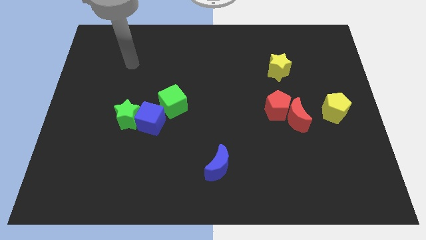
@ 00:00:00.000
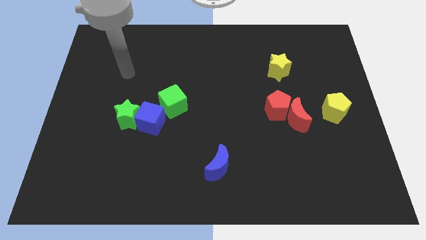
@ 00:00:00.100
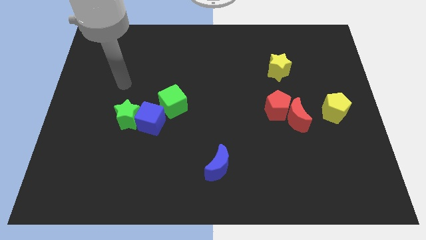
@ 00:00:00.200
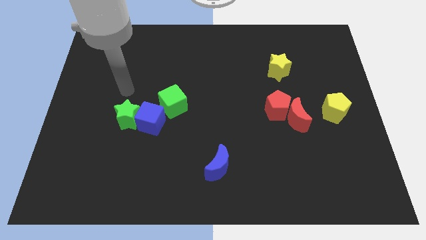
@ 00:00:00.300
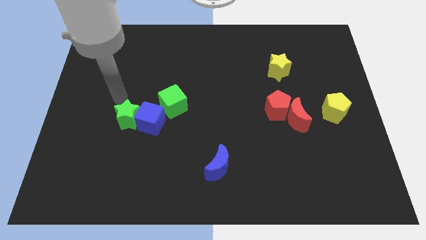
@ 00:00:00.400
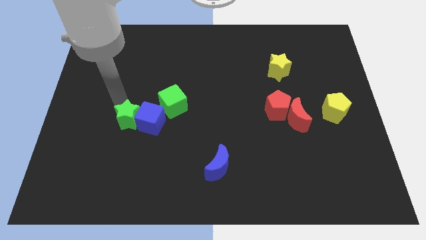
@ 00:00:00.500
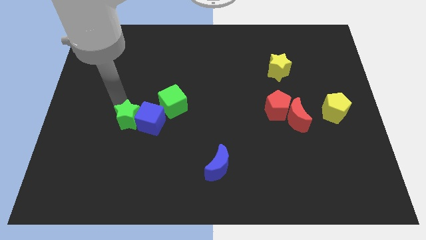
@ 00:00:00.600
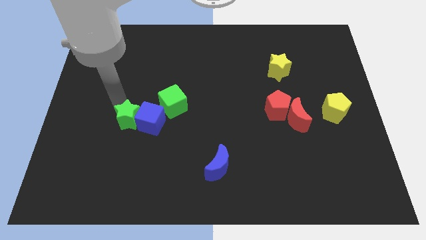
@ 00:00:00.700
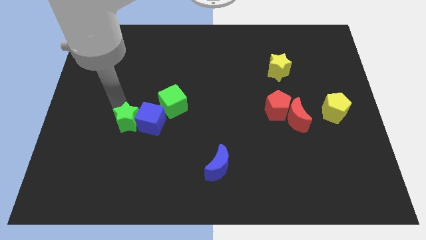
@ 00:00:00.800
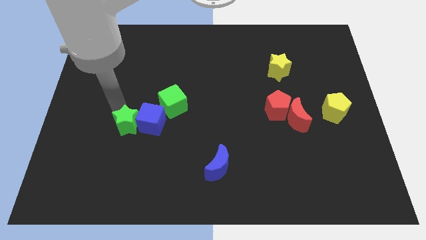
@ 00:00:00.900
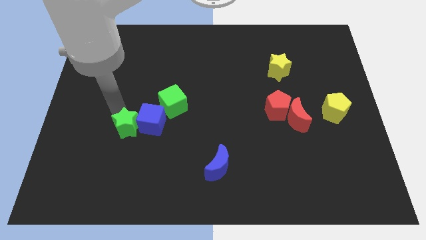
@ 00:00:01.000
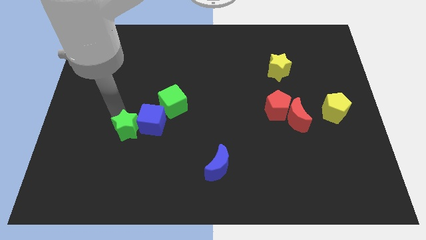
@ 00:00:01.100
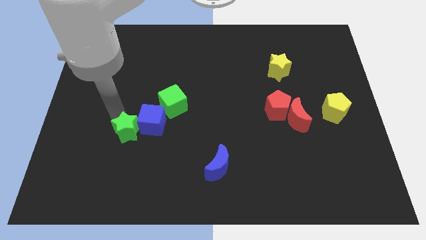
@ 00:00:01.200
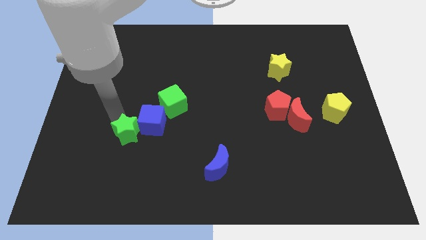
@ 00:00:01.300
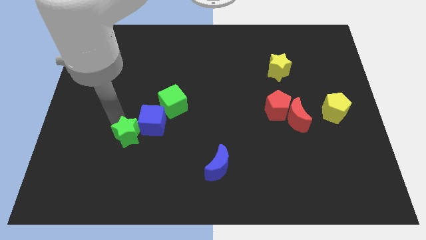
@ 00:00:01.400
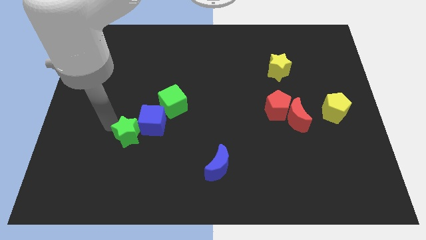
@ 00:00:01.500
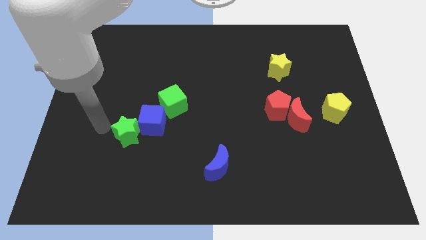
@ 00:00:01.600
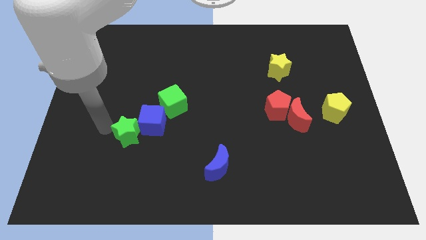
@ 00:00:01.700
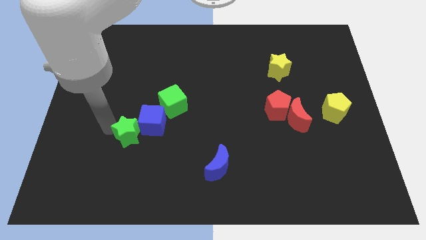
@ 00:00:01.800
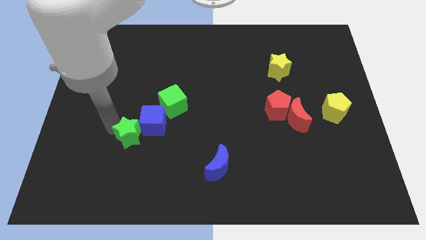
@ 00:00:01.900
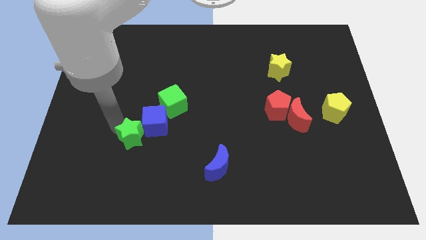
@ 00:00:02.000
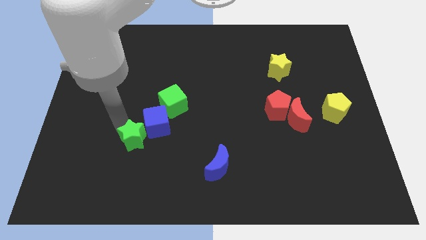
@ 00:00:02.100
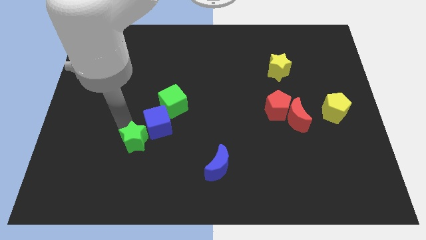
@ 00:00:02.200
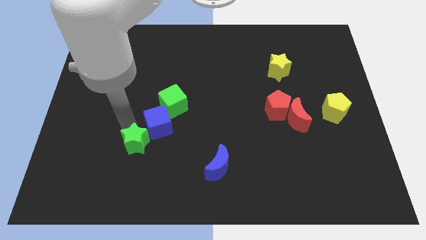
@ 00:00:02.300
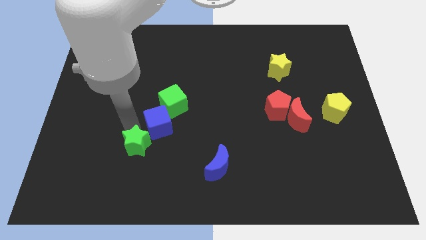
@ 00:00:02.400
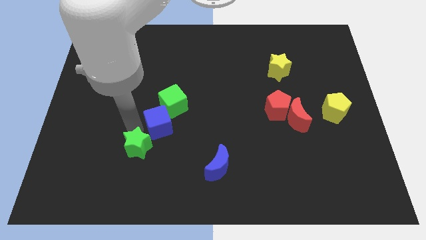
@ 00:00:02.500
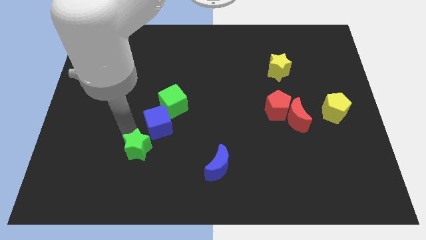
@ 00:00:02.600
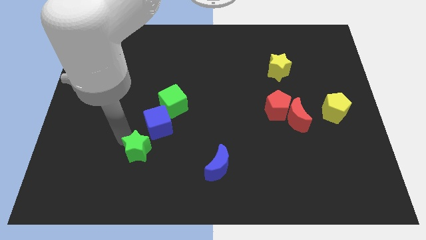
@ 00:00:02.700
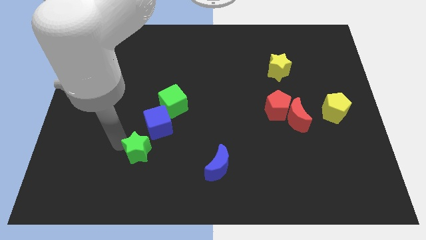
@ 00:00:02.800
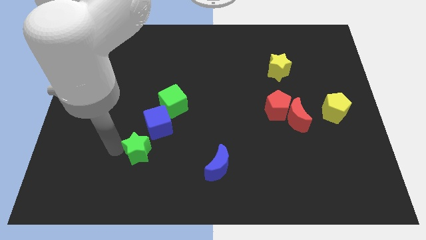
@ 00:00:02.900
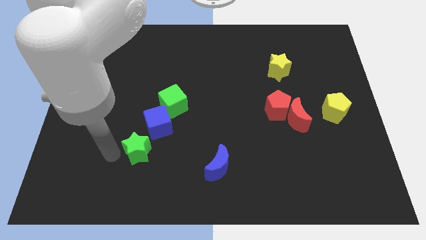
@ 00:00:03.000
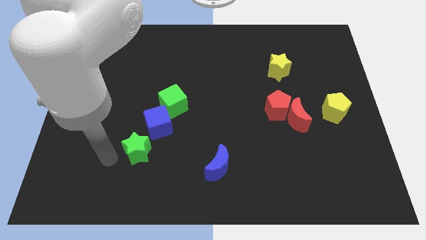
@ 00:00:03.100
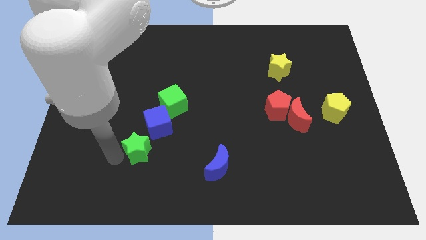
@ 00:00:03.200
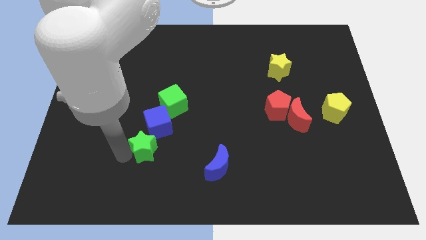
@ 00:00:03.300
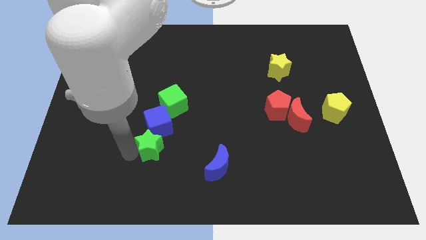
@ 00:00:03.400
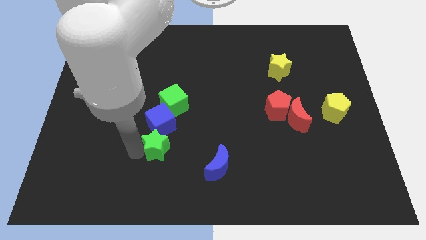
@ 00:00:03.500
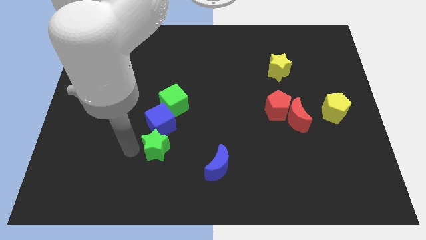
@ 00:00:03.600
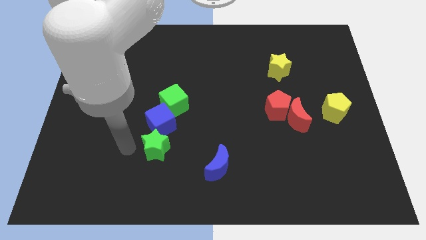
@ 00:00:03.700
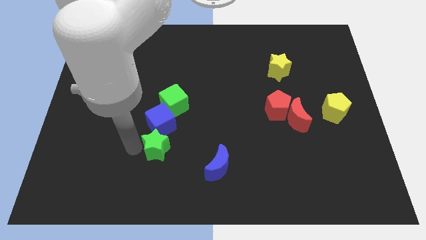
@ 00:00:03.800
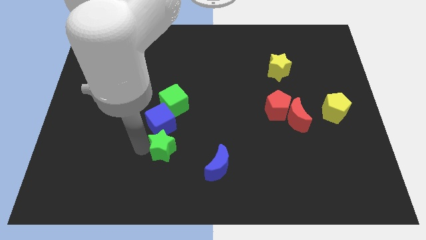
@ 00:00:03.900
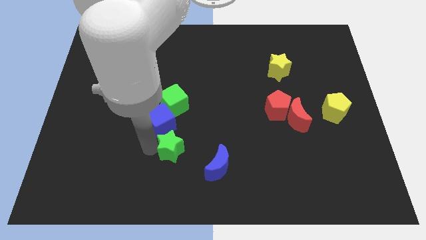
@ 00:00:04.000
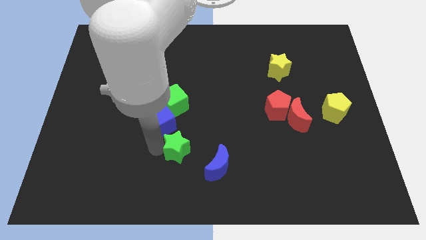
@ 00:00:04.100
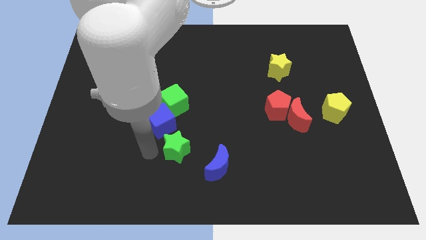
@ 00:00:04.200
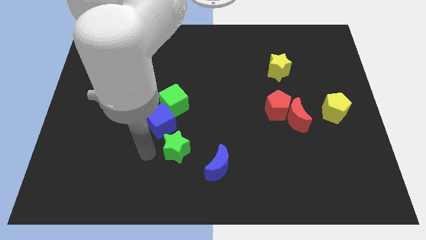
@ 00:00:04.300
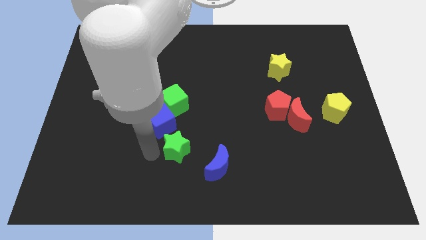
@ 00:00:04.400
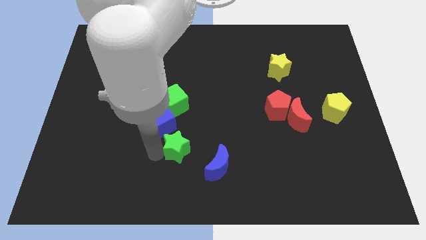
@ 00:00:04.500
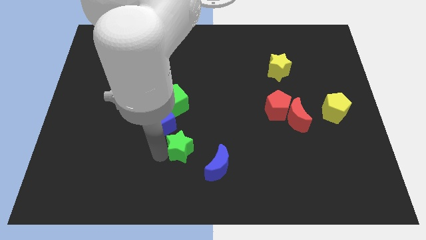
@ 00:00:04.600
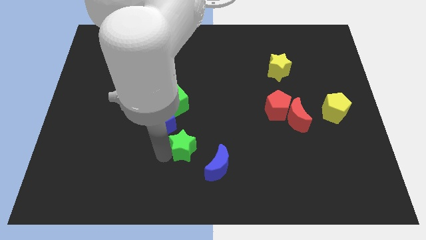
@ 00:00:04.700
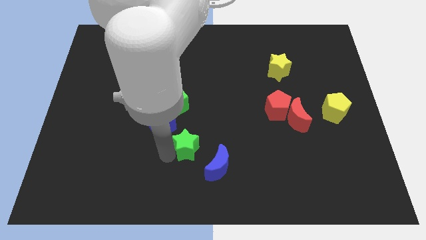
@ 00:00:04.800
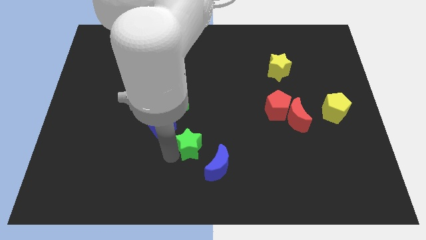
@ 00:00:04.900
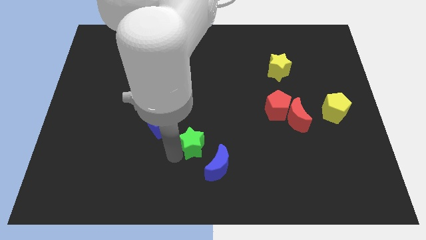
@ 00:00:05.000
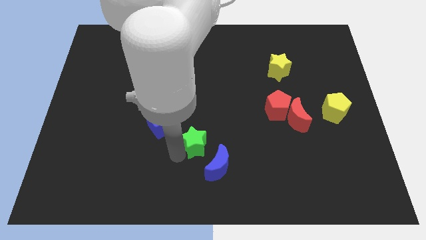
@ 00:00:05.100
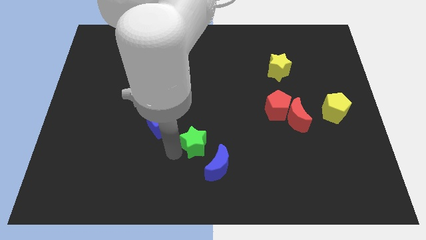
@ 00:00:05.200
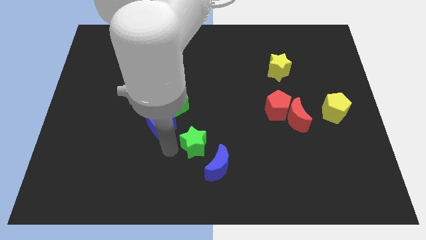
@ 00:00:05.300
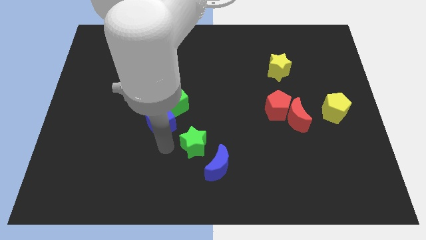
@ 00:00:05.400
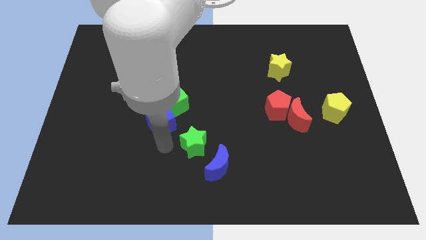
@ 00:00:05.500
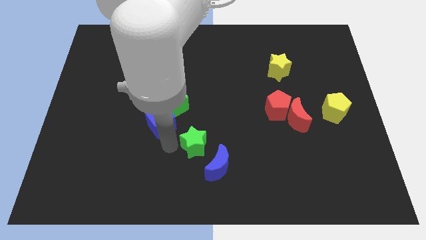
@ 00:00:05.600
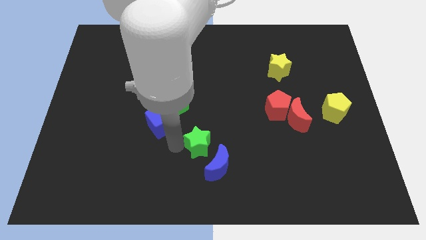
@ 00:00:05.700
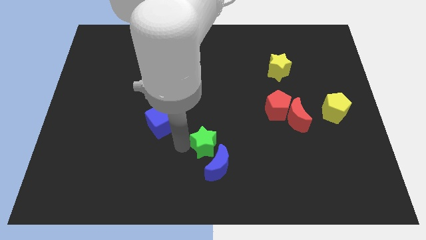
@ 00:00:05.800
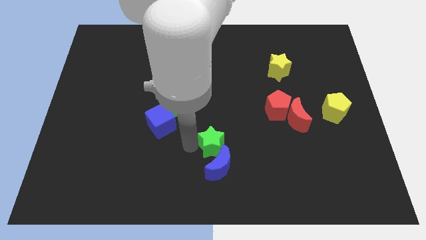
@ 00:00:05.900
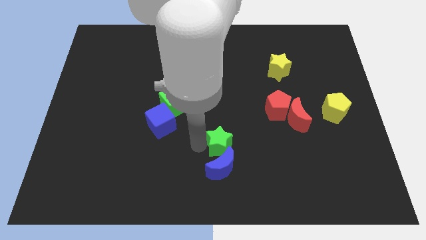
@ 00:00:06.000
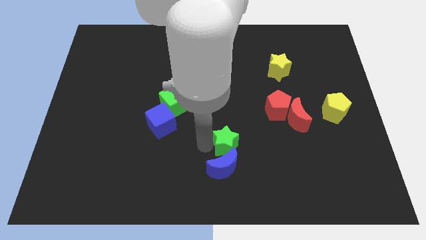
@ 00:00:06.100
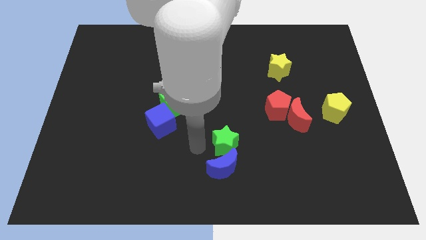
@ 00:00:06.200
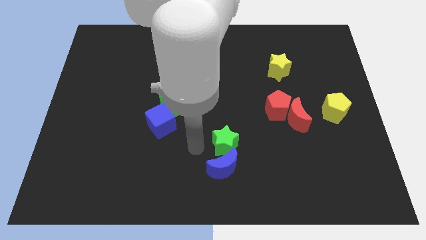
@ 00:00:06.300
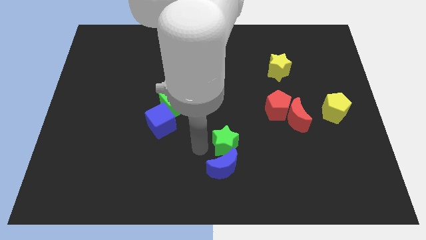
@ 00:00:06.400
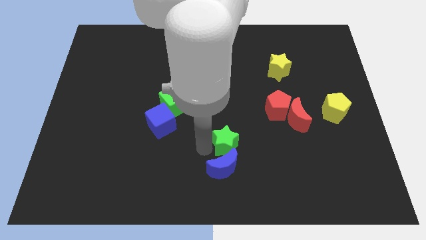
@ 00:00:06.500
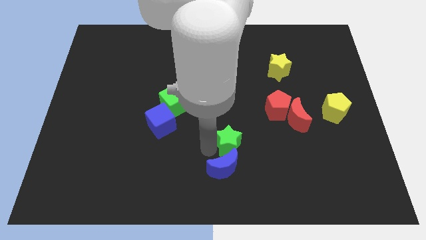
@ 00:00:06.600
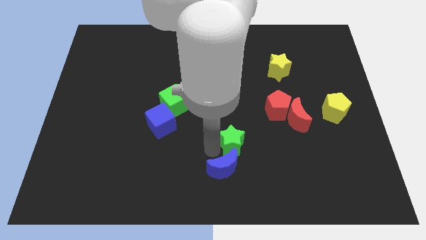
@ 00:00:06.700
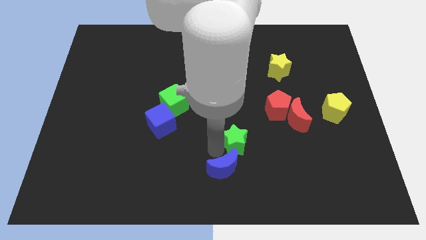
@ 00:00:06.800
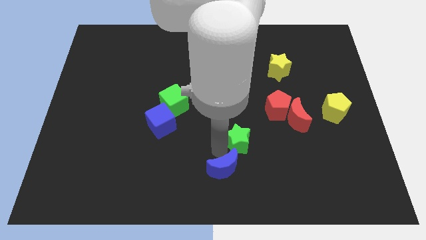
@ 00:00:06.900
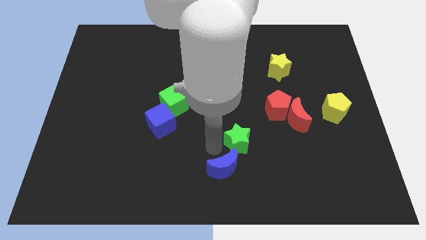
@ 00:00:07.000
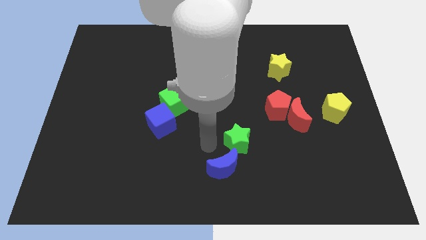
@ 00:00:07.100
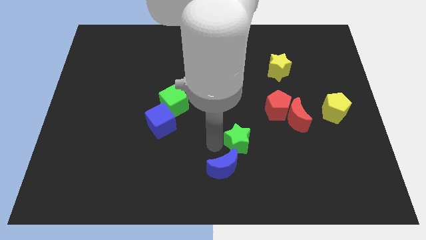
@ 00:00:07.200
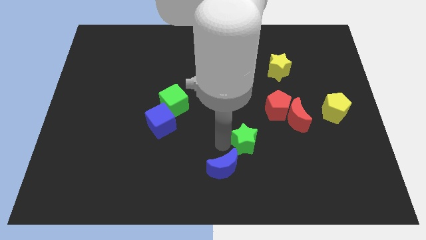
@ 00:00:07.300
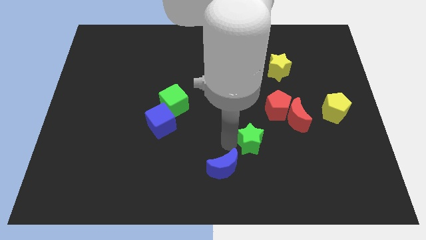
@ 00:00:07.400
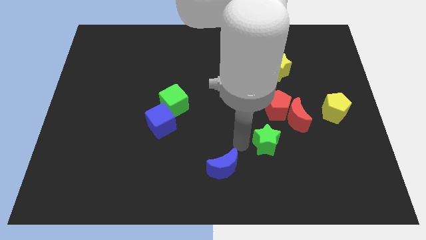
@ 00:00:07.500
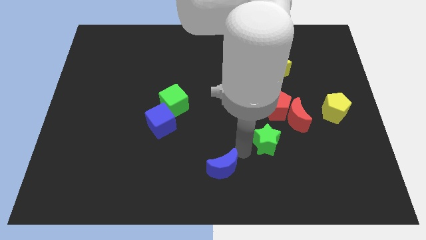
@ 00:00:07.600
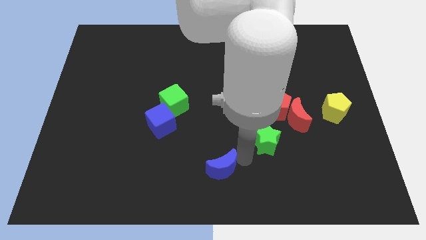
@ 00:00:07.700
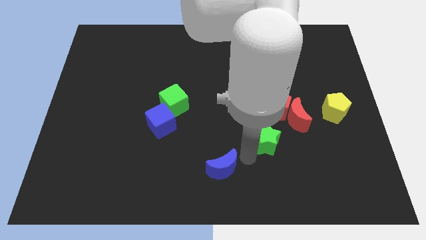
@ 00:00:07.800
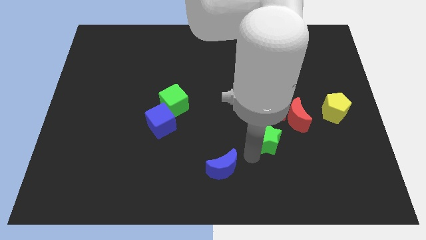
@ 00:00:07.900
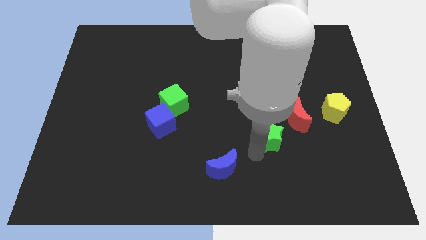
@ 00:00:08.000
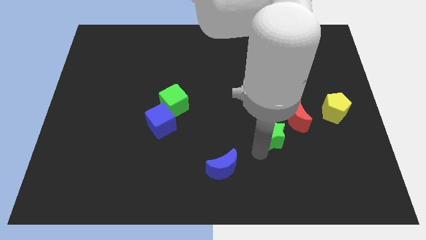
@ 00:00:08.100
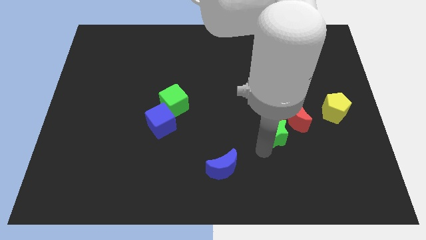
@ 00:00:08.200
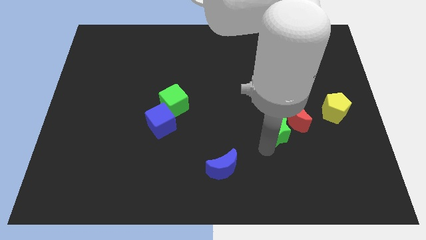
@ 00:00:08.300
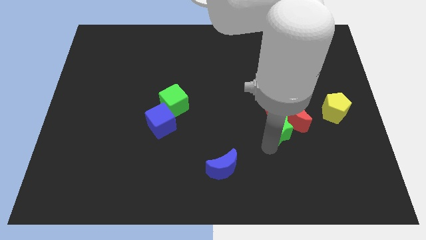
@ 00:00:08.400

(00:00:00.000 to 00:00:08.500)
put the green star towards the red moon
